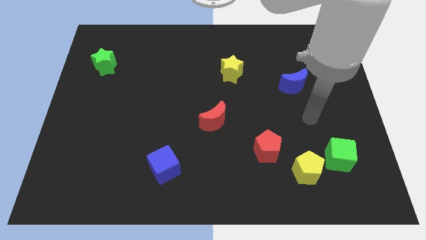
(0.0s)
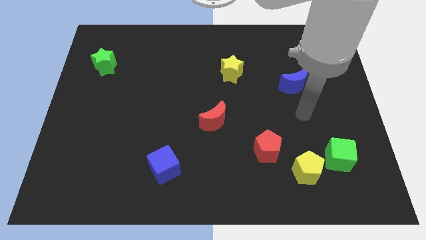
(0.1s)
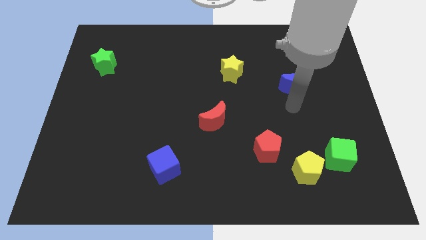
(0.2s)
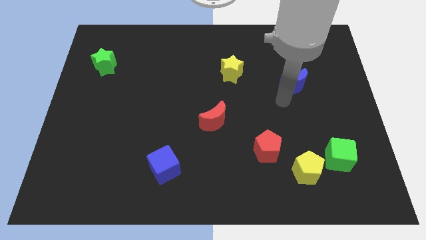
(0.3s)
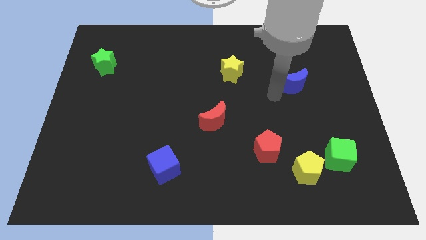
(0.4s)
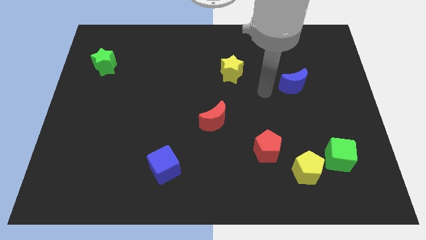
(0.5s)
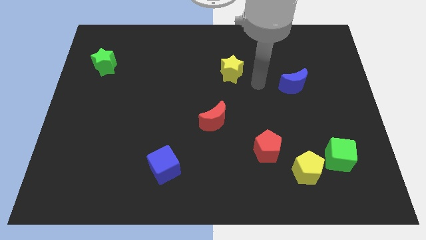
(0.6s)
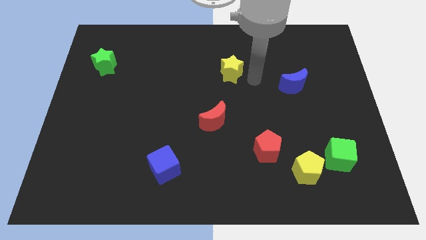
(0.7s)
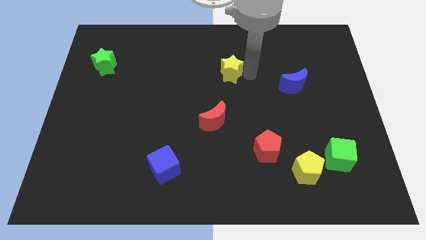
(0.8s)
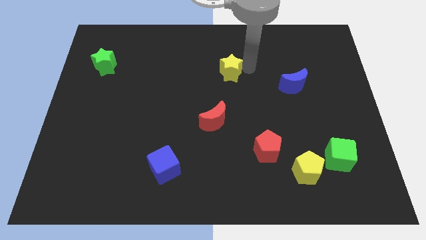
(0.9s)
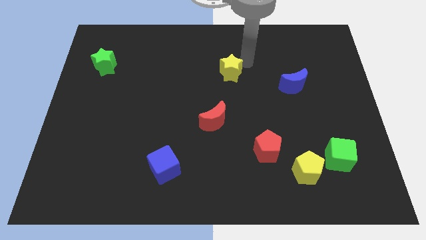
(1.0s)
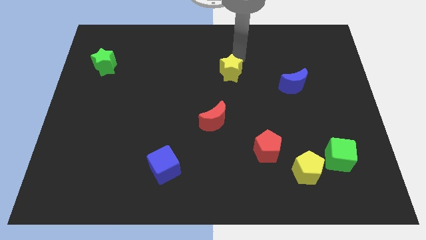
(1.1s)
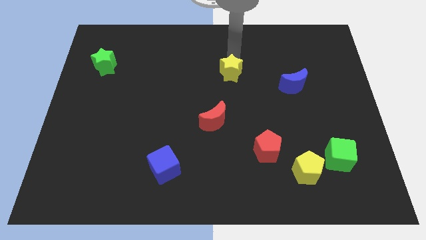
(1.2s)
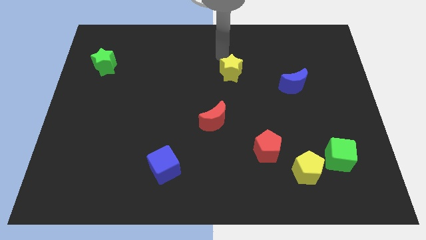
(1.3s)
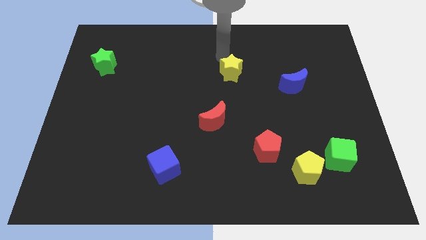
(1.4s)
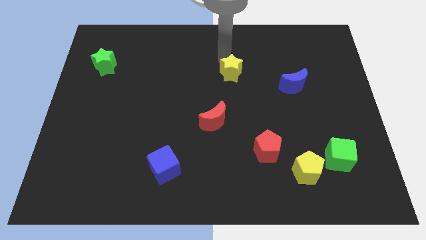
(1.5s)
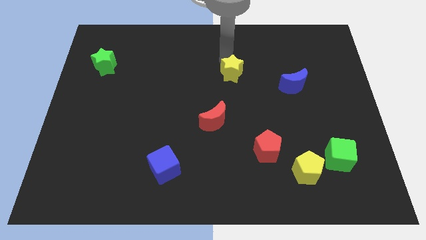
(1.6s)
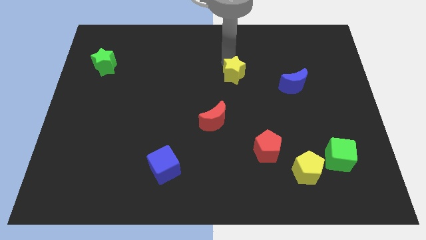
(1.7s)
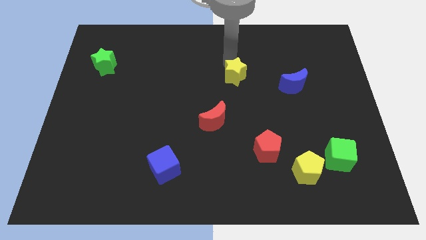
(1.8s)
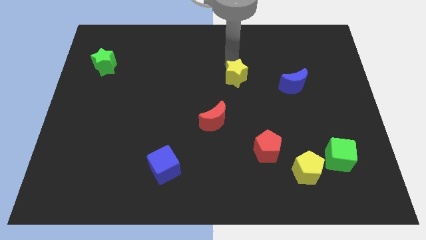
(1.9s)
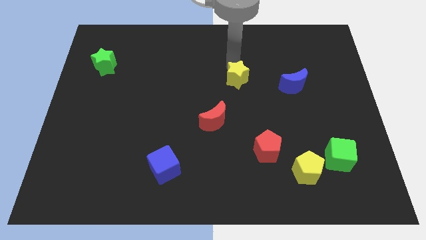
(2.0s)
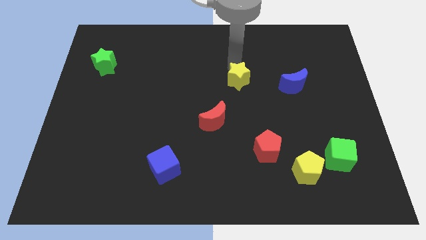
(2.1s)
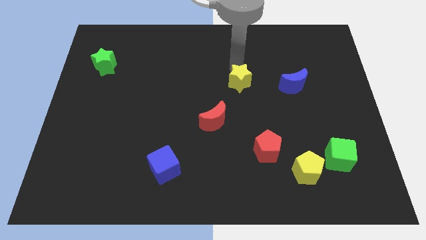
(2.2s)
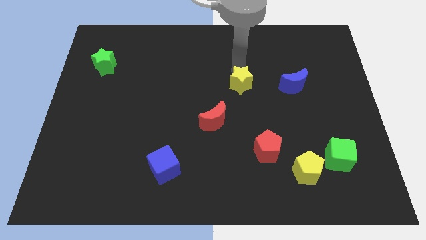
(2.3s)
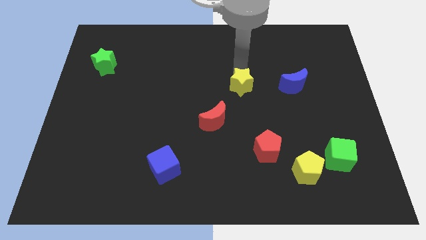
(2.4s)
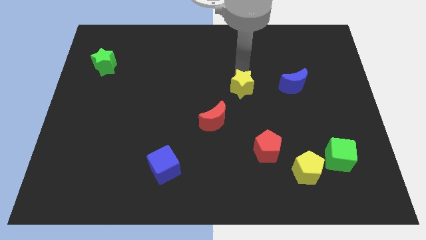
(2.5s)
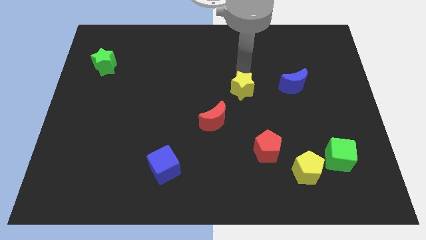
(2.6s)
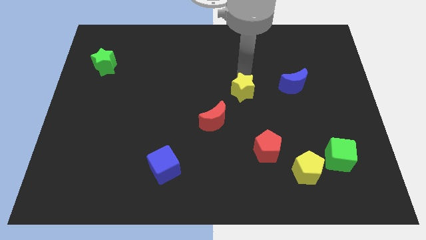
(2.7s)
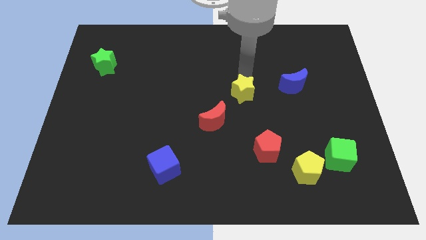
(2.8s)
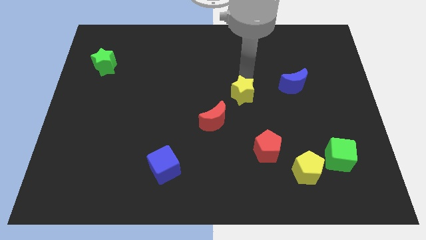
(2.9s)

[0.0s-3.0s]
slide the yellow star a bit downwards

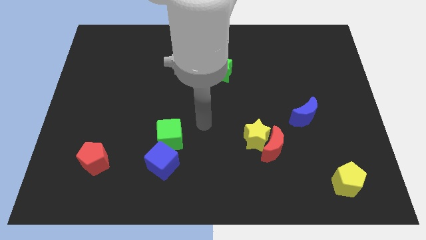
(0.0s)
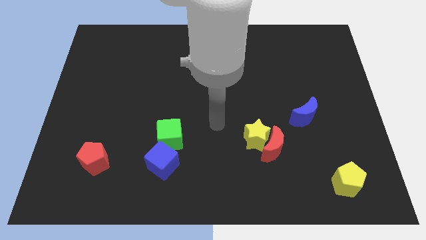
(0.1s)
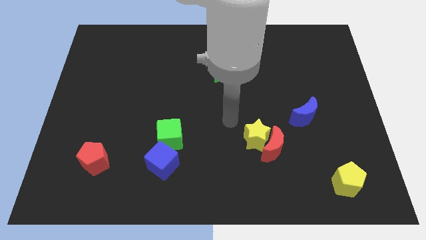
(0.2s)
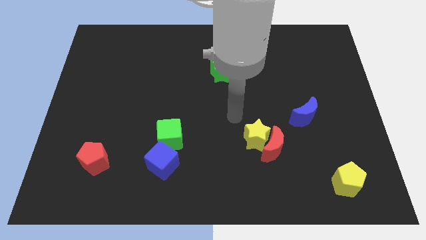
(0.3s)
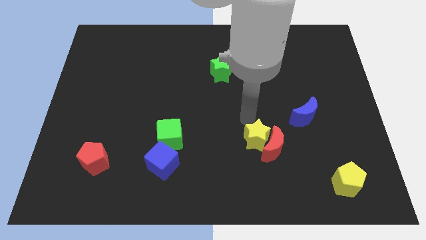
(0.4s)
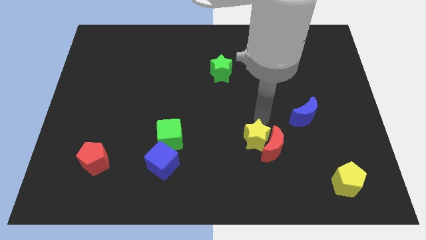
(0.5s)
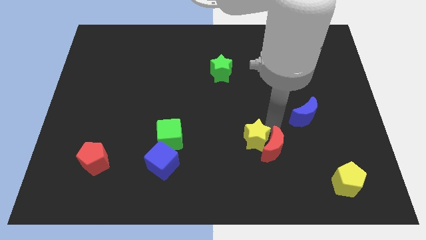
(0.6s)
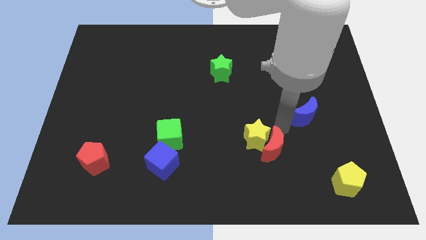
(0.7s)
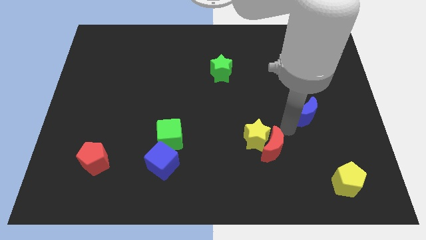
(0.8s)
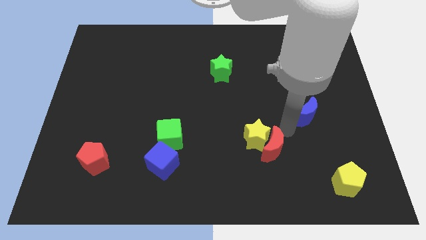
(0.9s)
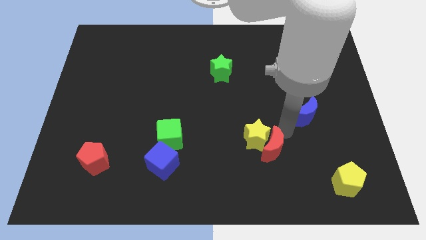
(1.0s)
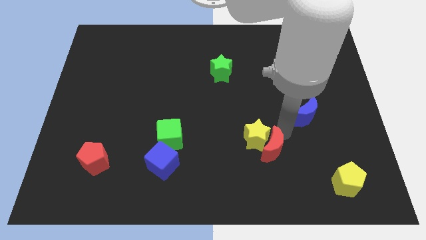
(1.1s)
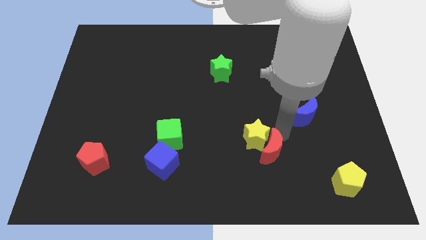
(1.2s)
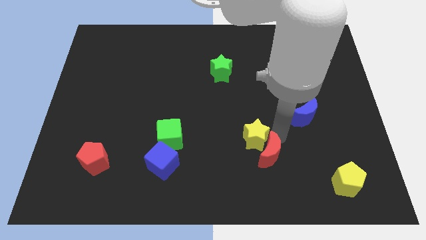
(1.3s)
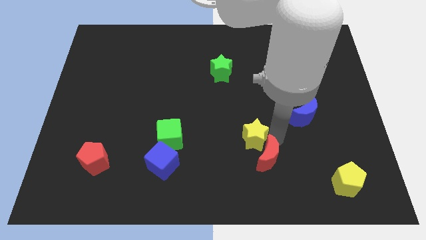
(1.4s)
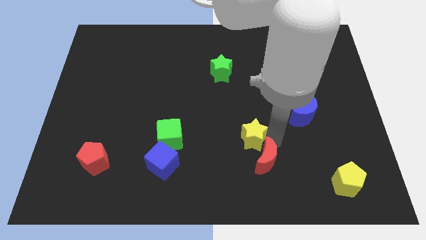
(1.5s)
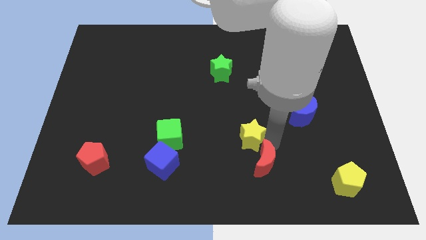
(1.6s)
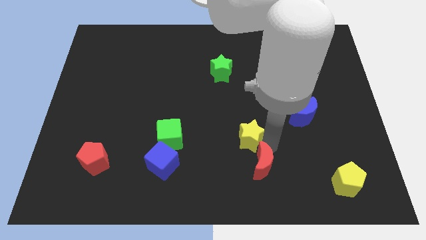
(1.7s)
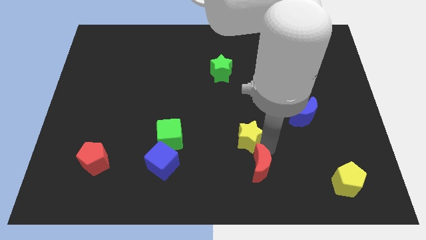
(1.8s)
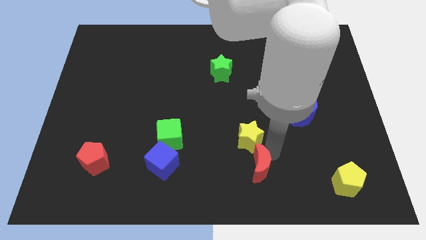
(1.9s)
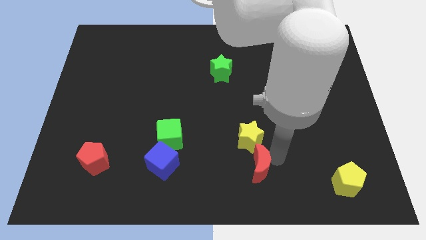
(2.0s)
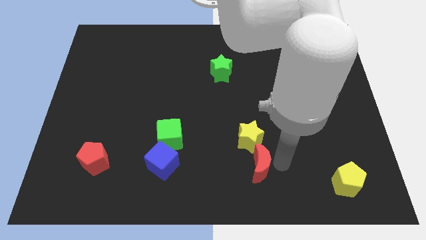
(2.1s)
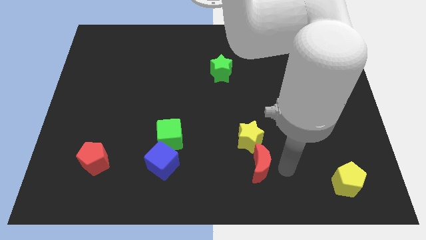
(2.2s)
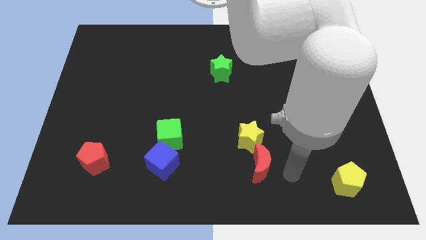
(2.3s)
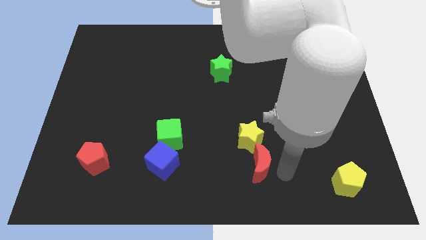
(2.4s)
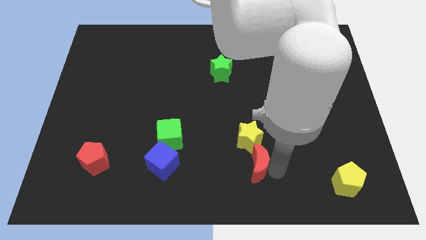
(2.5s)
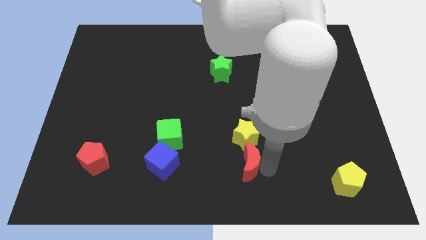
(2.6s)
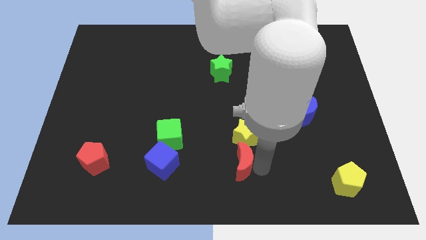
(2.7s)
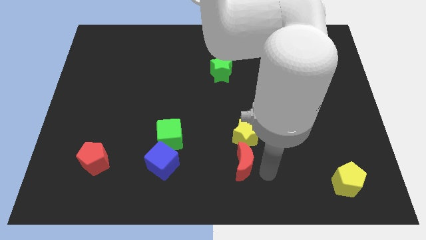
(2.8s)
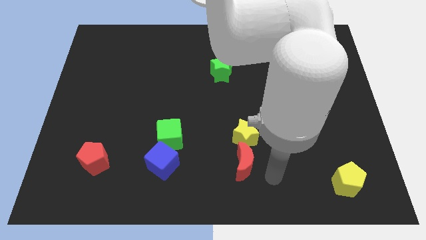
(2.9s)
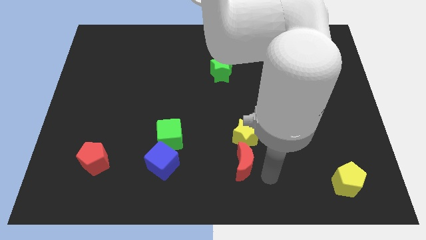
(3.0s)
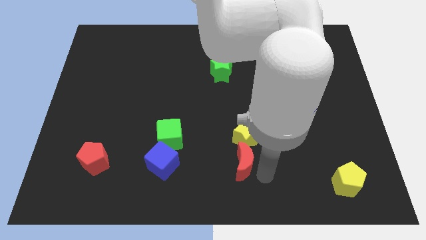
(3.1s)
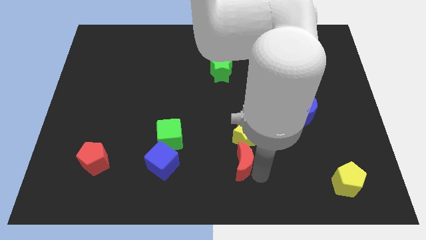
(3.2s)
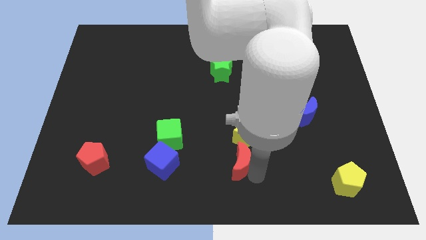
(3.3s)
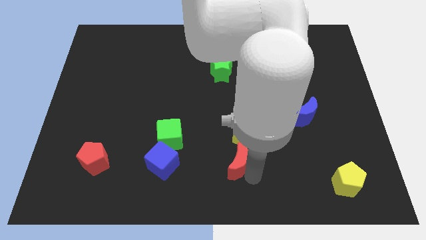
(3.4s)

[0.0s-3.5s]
slide the red moon left a little bit

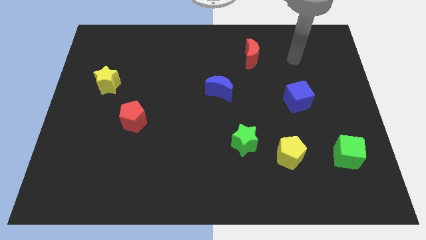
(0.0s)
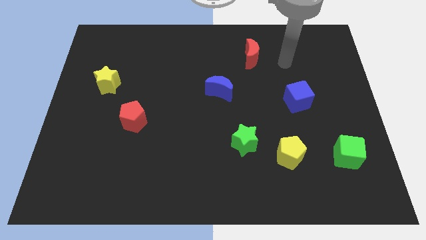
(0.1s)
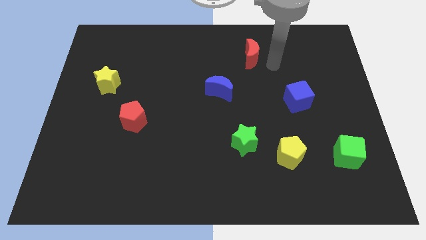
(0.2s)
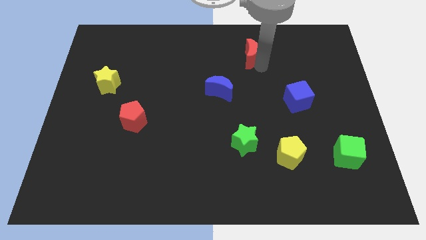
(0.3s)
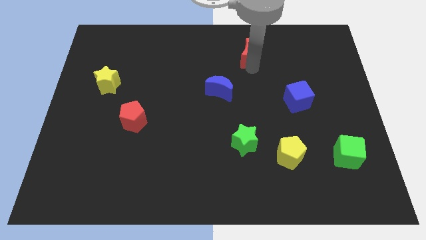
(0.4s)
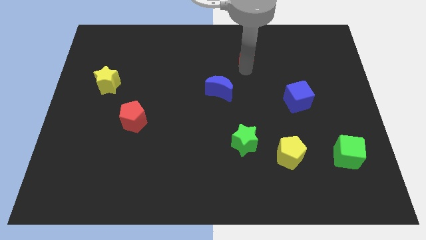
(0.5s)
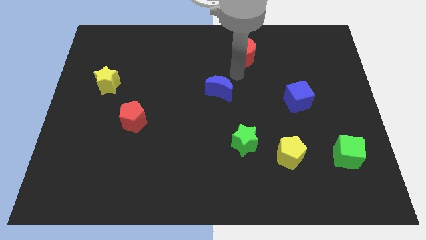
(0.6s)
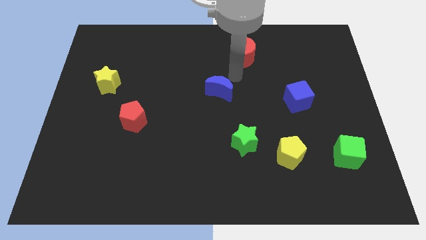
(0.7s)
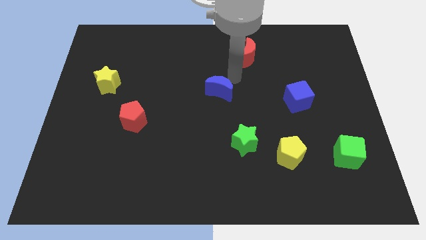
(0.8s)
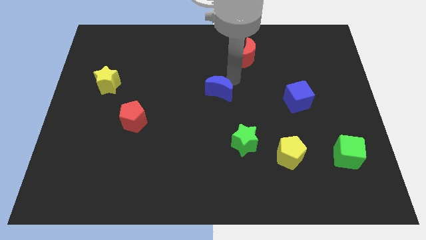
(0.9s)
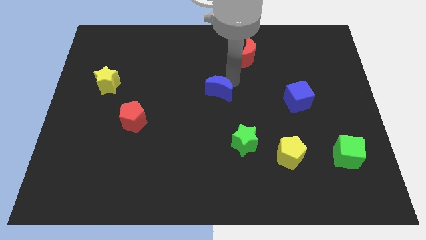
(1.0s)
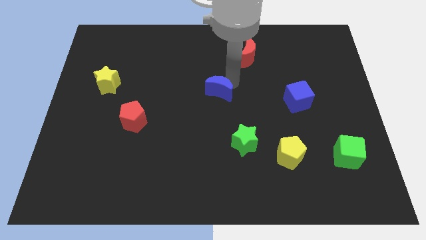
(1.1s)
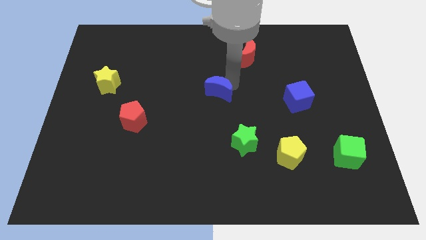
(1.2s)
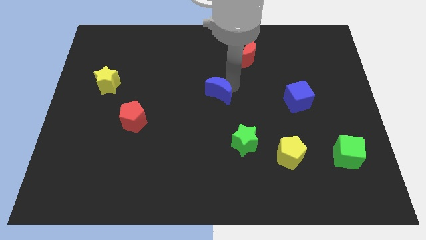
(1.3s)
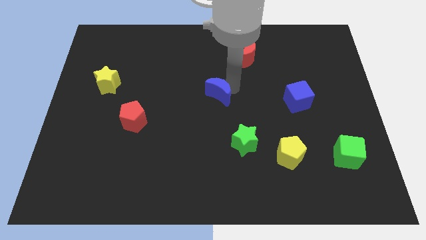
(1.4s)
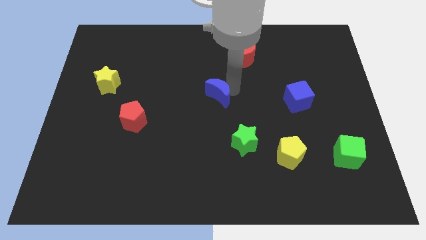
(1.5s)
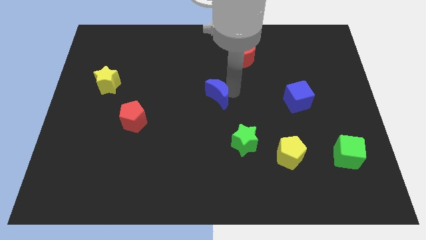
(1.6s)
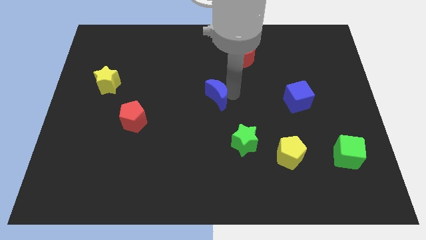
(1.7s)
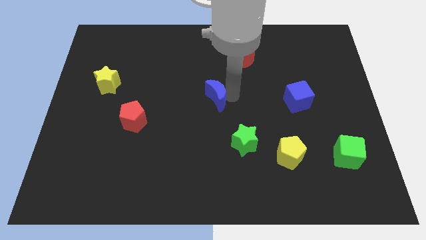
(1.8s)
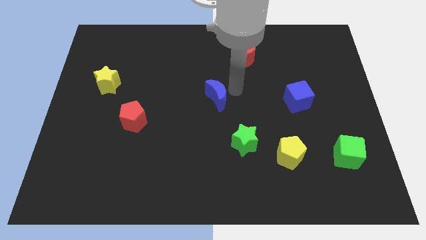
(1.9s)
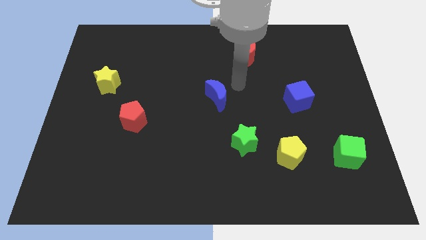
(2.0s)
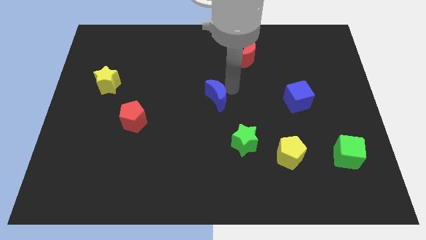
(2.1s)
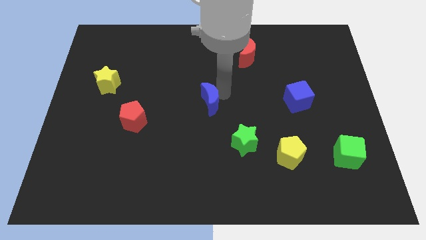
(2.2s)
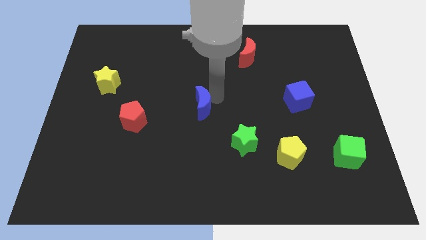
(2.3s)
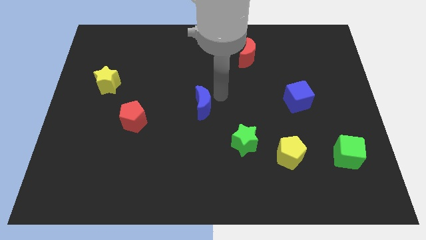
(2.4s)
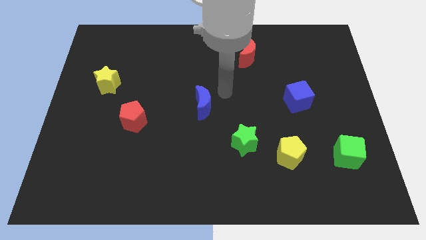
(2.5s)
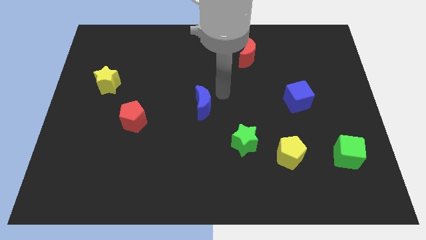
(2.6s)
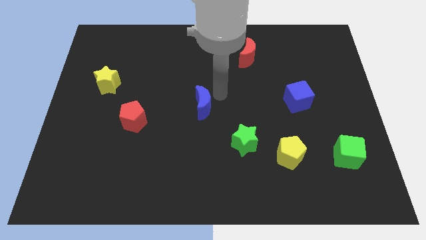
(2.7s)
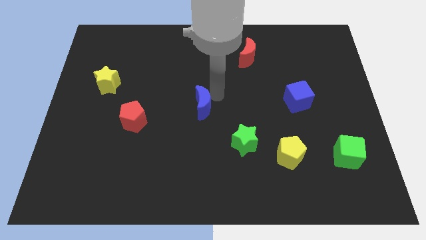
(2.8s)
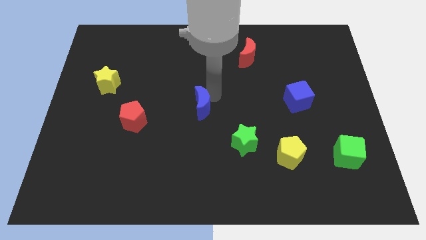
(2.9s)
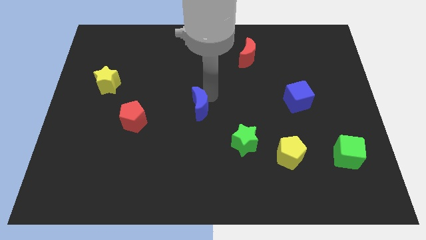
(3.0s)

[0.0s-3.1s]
push the blue moon a bit downwards and then left
